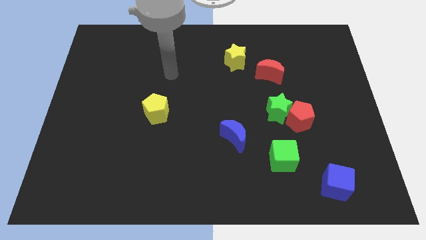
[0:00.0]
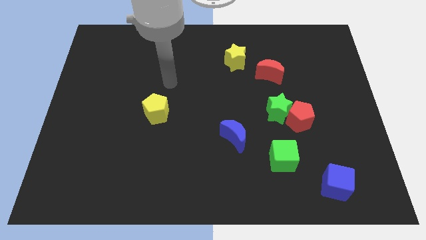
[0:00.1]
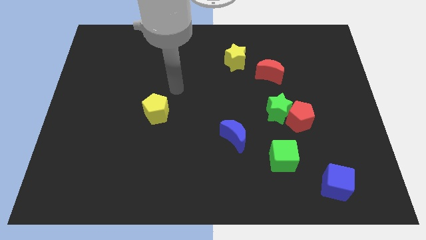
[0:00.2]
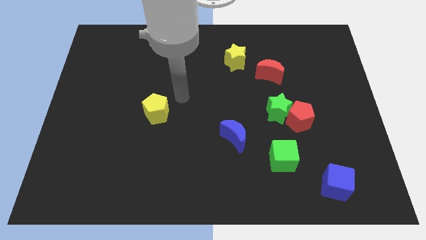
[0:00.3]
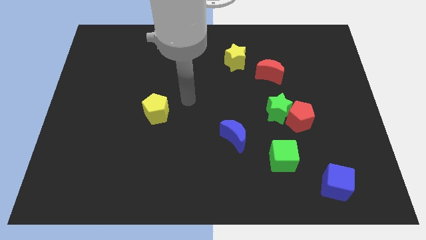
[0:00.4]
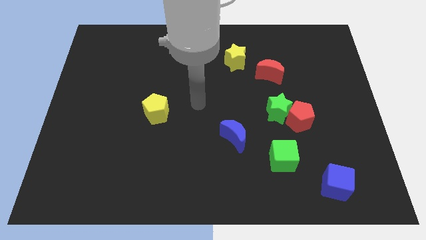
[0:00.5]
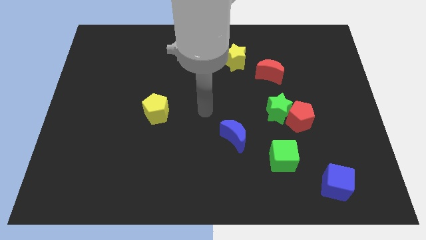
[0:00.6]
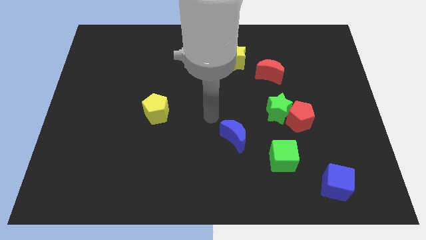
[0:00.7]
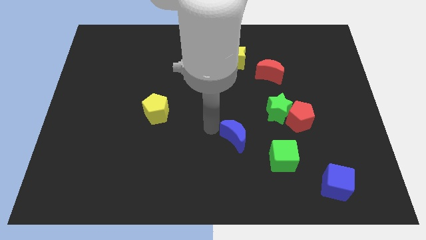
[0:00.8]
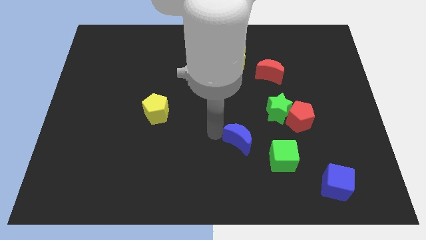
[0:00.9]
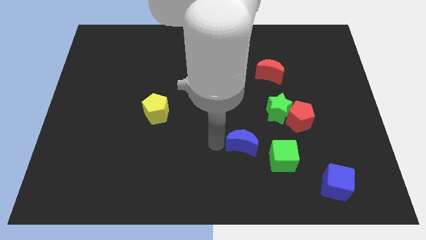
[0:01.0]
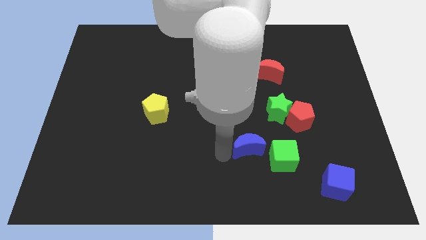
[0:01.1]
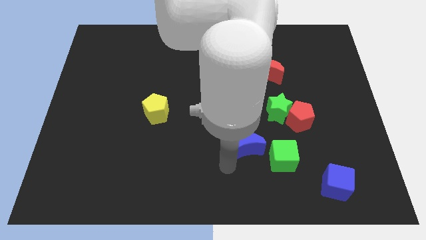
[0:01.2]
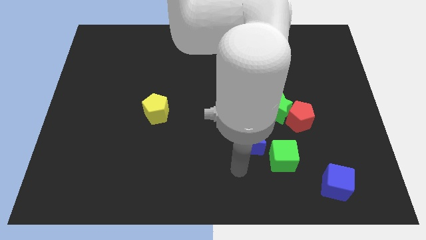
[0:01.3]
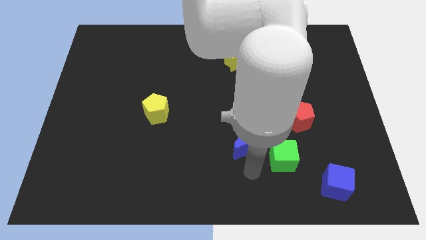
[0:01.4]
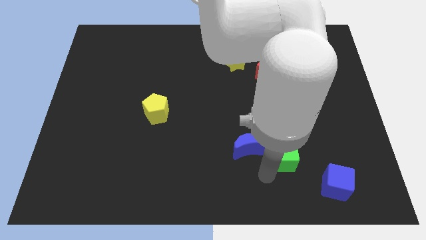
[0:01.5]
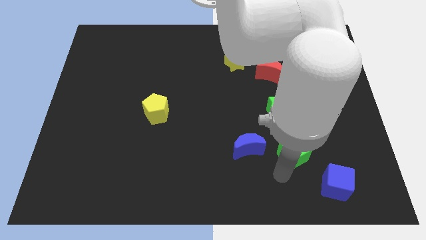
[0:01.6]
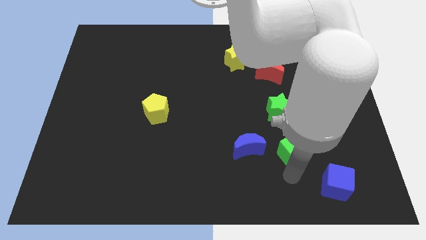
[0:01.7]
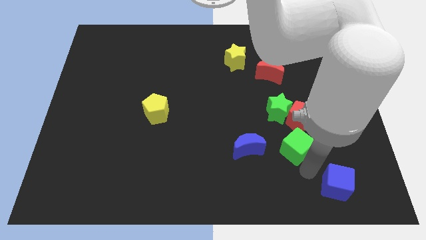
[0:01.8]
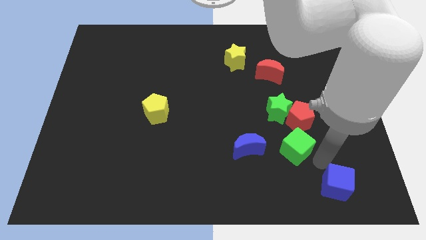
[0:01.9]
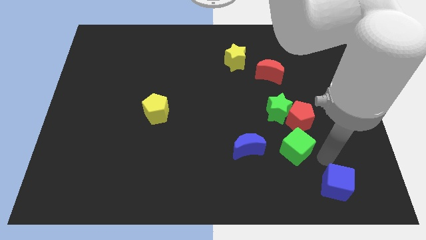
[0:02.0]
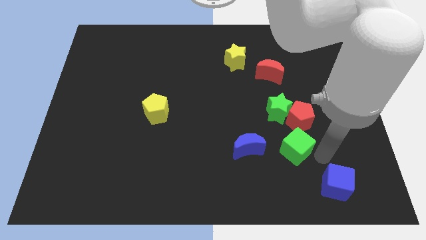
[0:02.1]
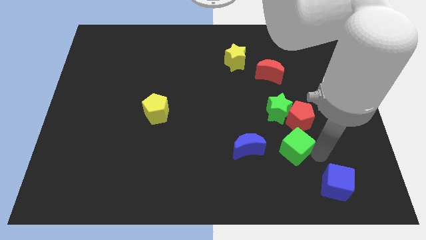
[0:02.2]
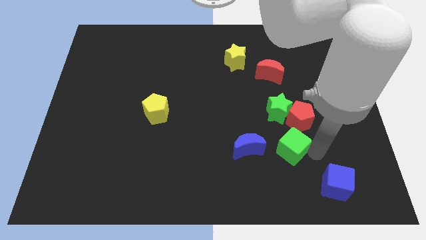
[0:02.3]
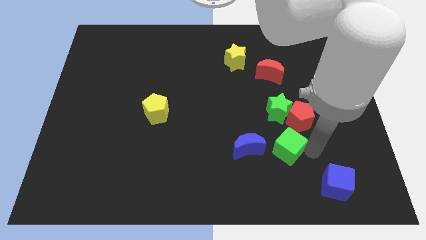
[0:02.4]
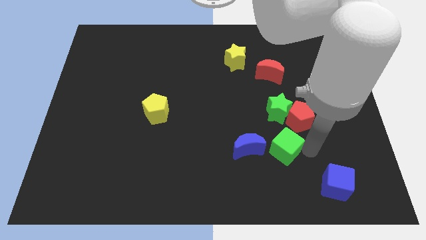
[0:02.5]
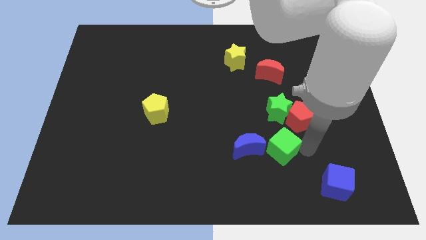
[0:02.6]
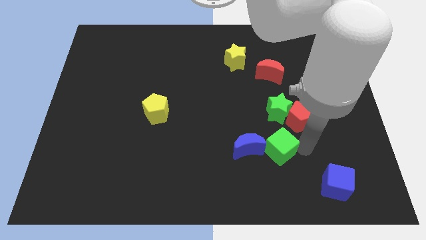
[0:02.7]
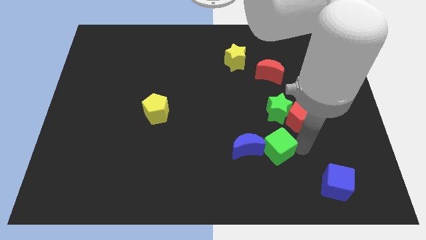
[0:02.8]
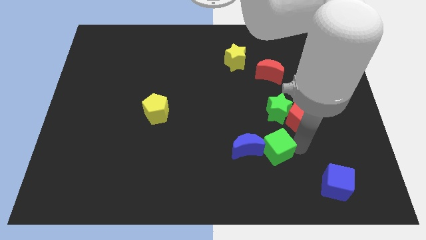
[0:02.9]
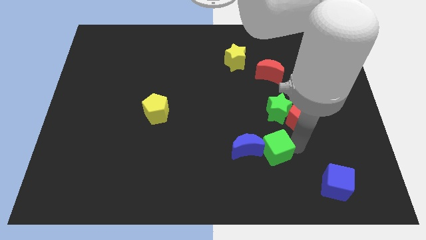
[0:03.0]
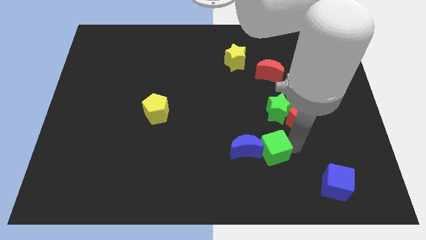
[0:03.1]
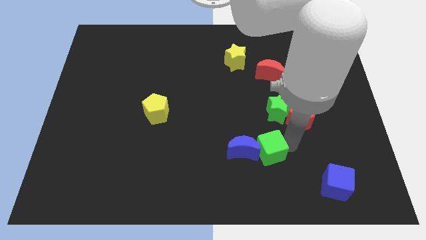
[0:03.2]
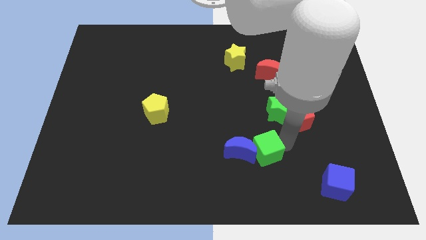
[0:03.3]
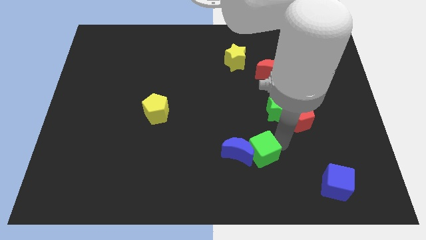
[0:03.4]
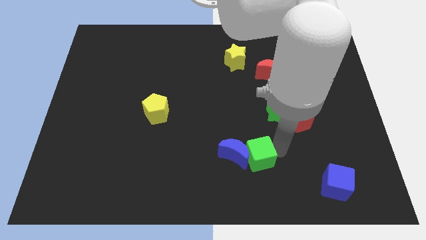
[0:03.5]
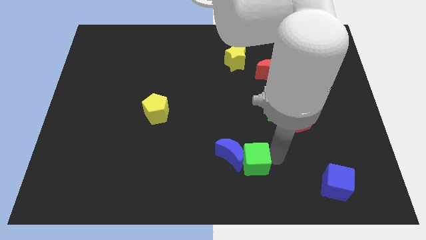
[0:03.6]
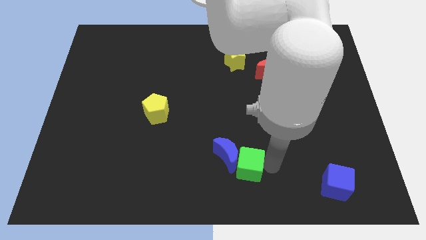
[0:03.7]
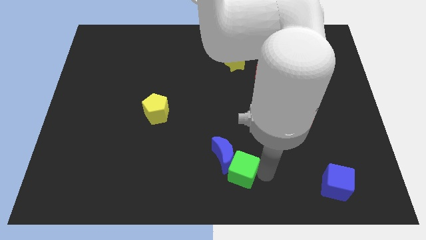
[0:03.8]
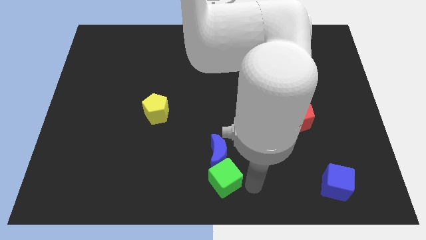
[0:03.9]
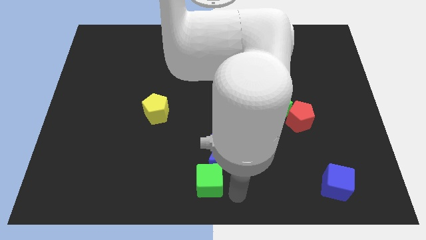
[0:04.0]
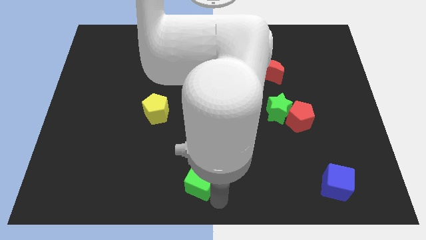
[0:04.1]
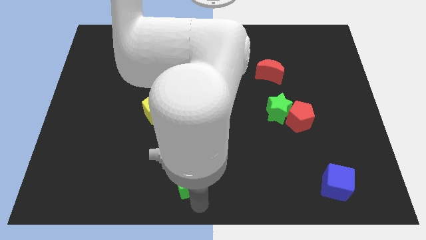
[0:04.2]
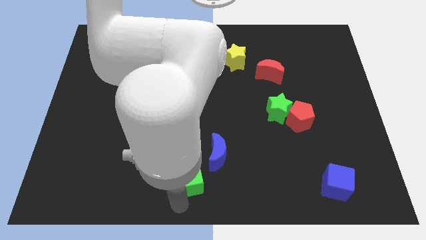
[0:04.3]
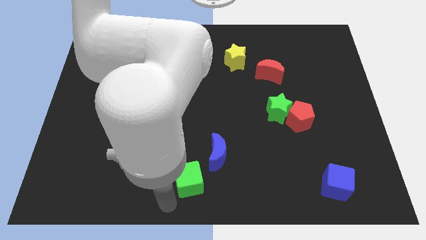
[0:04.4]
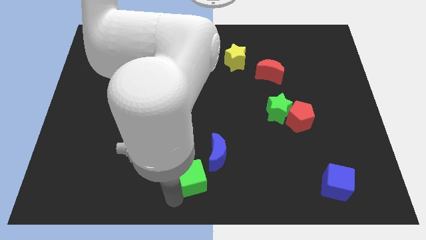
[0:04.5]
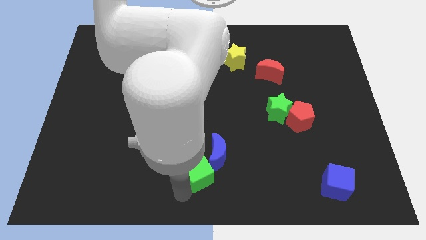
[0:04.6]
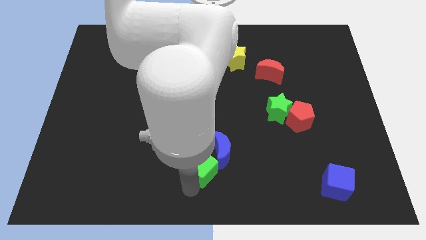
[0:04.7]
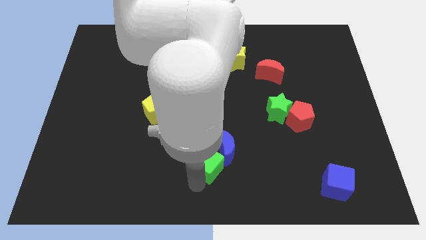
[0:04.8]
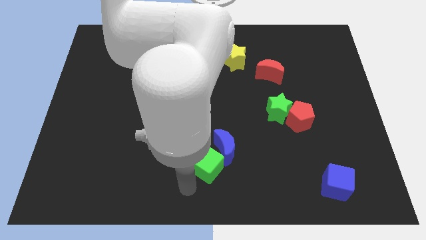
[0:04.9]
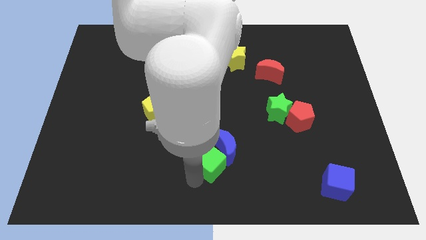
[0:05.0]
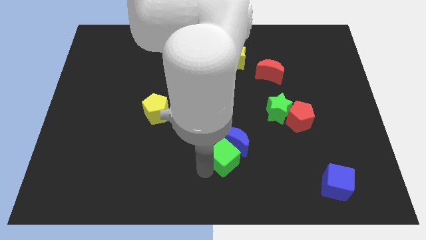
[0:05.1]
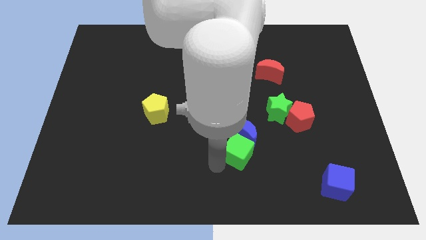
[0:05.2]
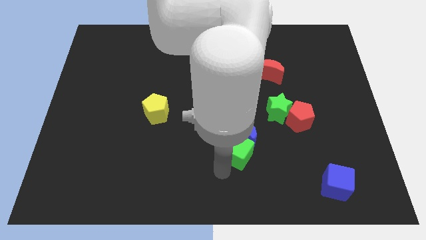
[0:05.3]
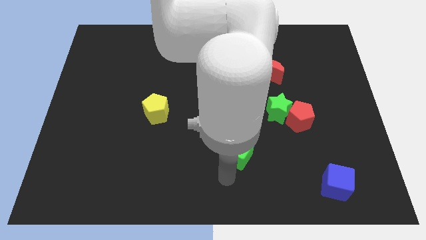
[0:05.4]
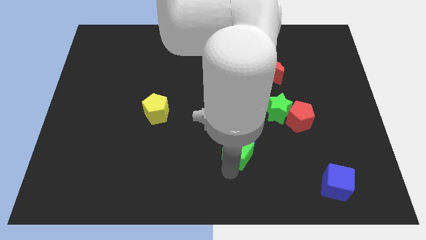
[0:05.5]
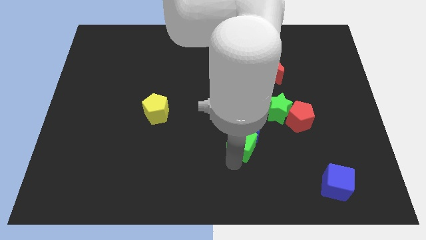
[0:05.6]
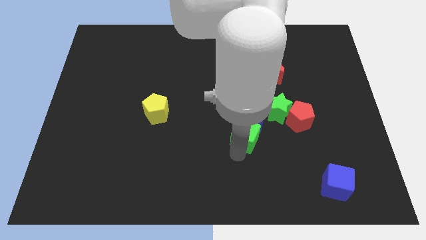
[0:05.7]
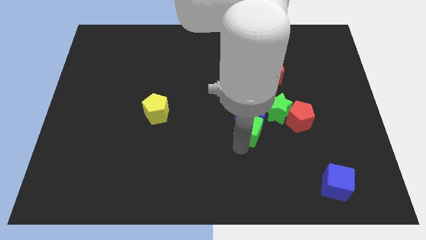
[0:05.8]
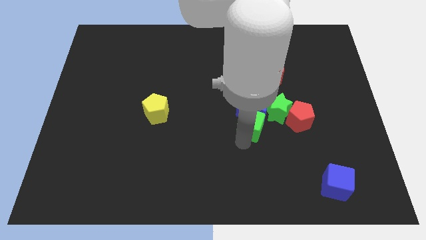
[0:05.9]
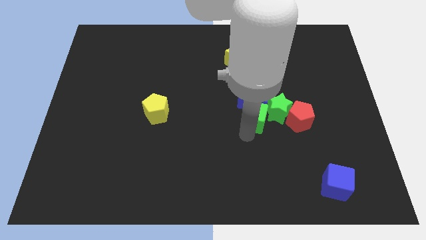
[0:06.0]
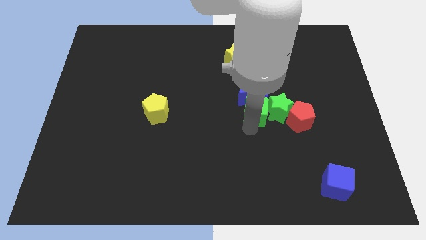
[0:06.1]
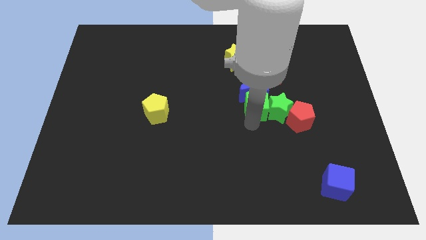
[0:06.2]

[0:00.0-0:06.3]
slide the green cube to the top left side of the red pentagon
